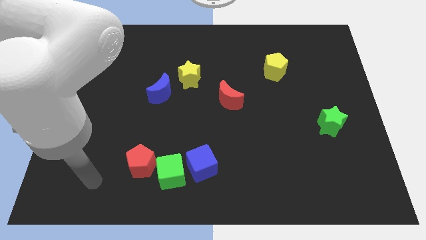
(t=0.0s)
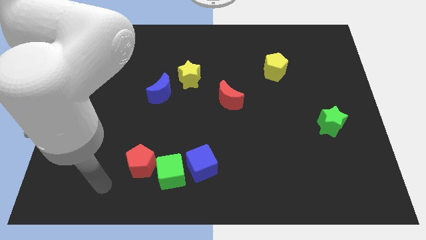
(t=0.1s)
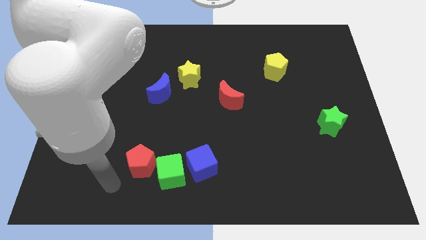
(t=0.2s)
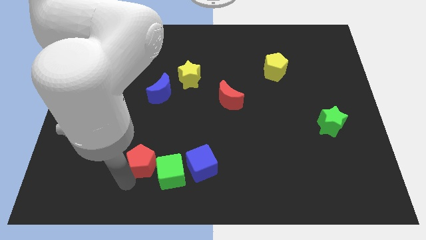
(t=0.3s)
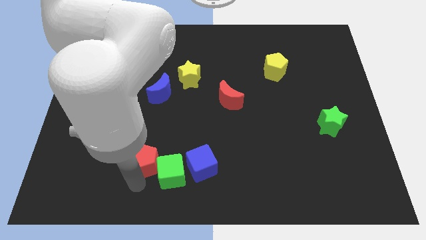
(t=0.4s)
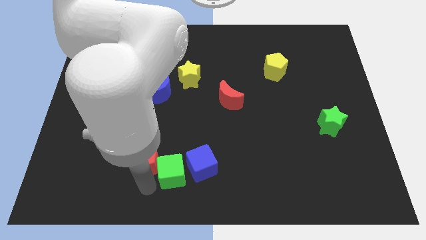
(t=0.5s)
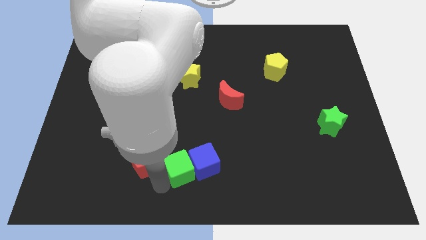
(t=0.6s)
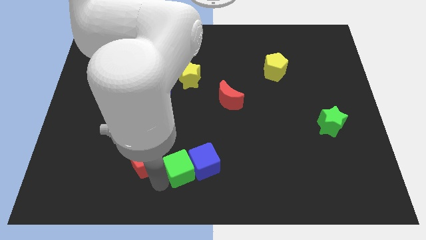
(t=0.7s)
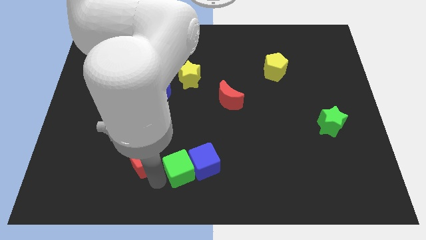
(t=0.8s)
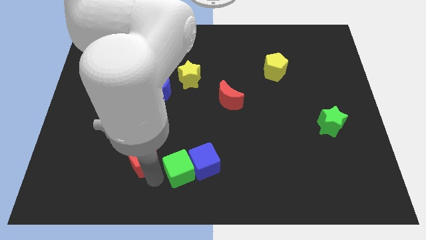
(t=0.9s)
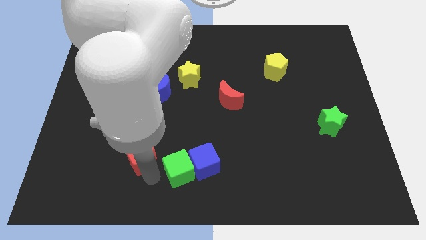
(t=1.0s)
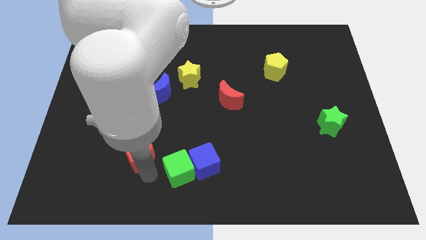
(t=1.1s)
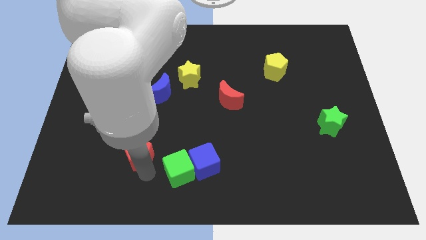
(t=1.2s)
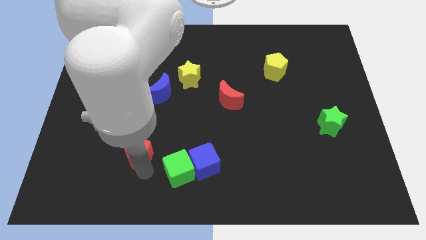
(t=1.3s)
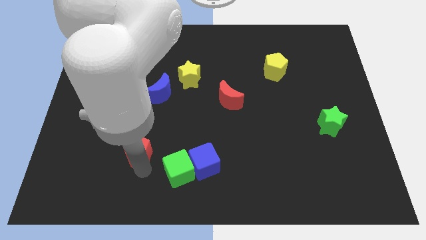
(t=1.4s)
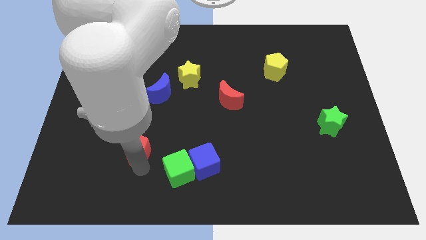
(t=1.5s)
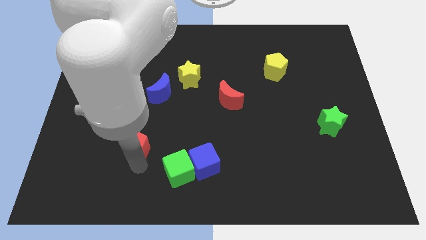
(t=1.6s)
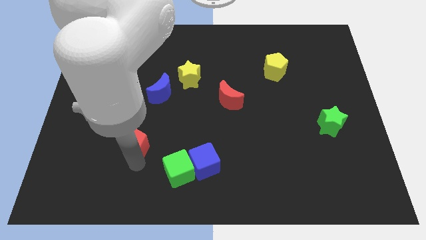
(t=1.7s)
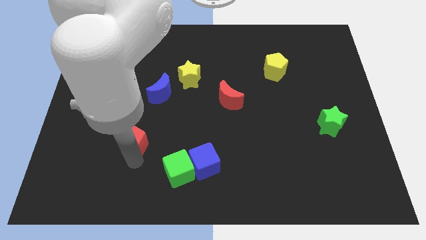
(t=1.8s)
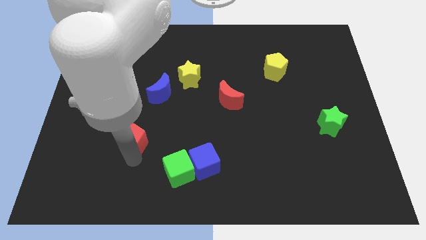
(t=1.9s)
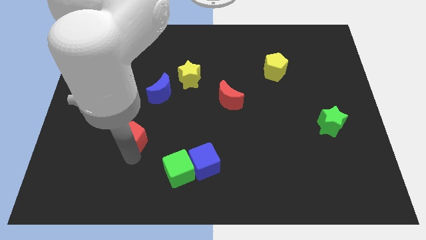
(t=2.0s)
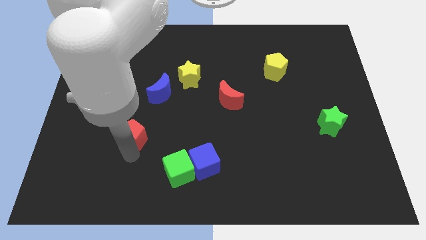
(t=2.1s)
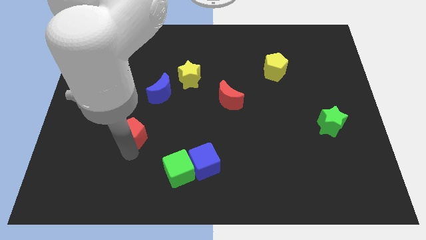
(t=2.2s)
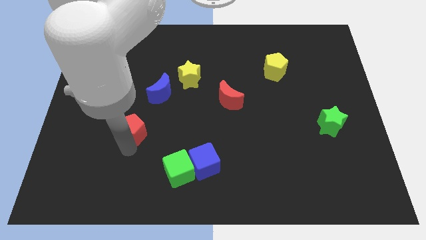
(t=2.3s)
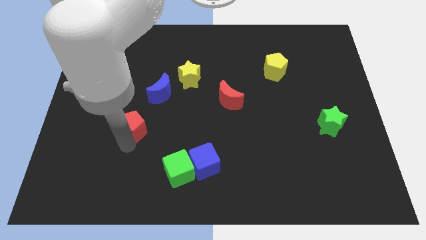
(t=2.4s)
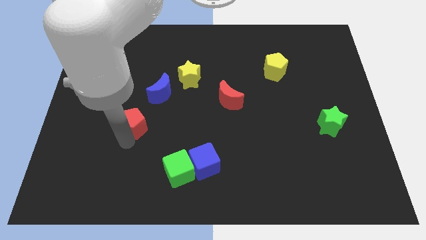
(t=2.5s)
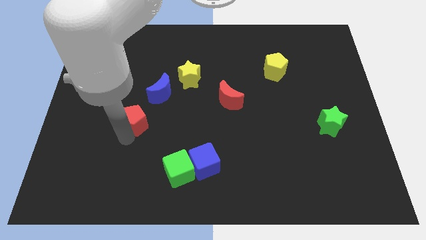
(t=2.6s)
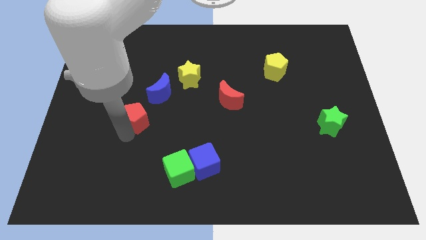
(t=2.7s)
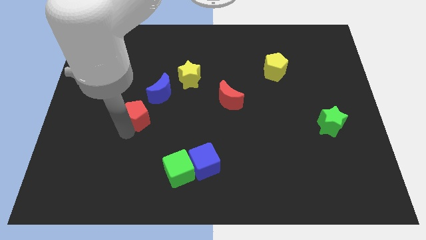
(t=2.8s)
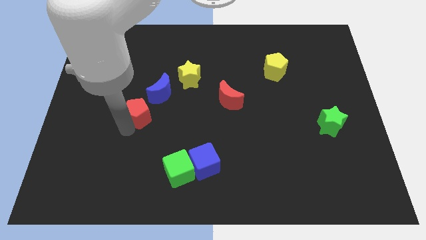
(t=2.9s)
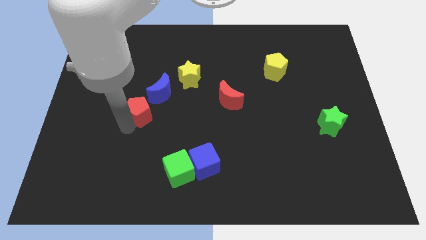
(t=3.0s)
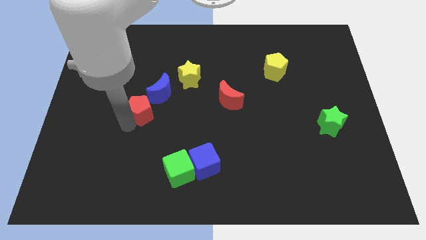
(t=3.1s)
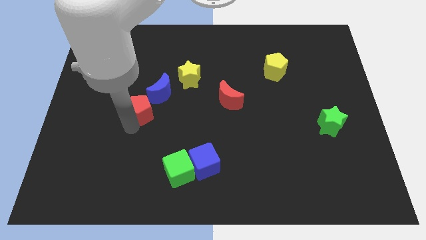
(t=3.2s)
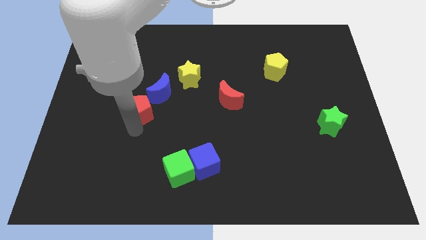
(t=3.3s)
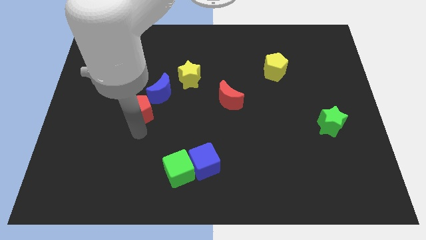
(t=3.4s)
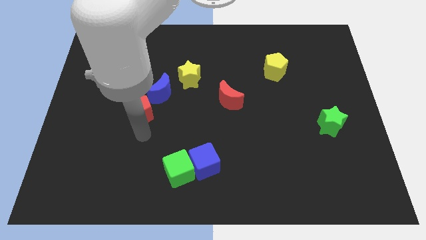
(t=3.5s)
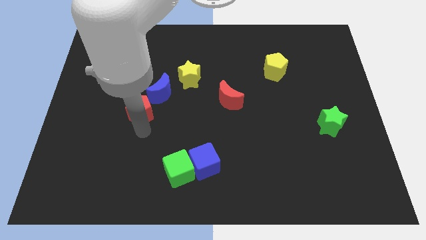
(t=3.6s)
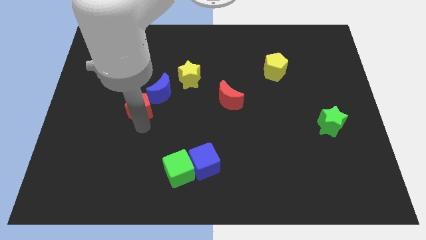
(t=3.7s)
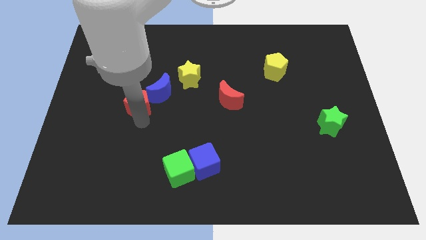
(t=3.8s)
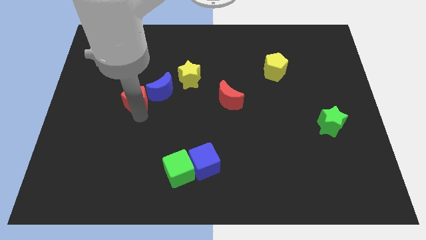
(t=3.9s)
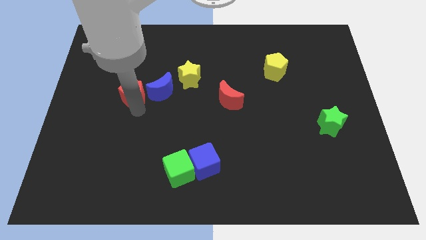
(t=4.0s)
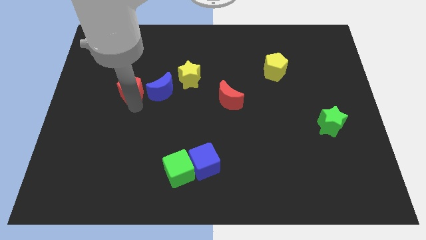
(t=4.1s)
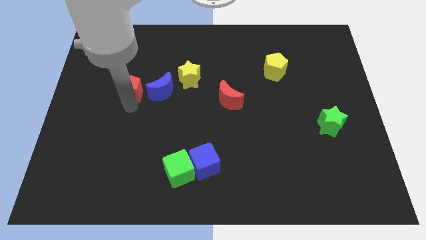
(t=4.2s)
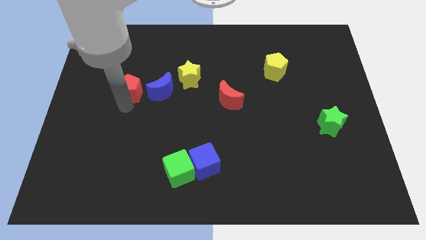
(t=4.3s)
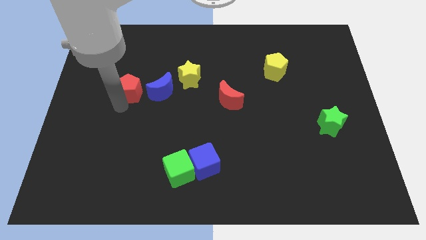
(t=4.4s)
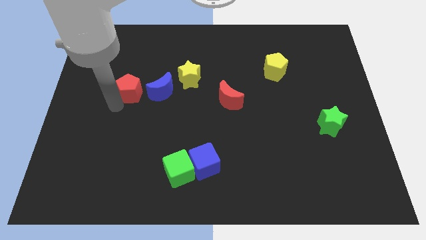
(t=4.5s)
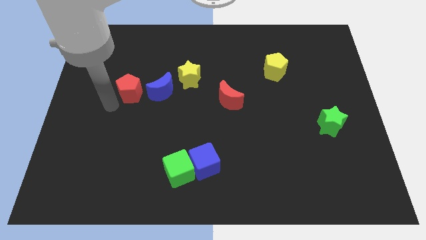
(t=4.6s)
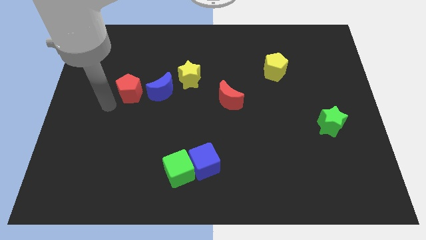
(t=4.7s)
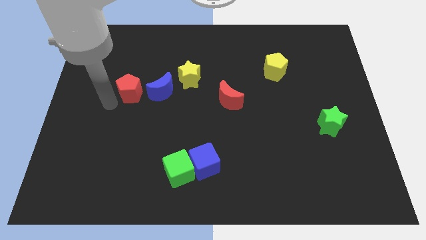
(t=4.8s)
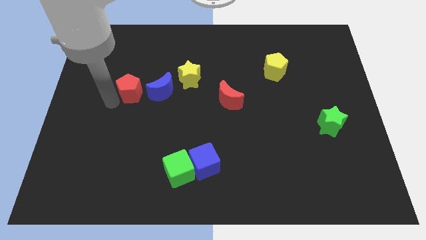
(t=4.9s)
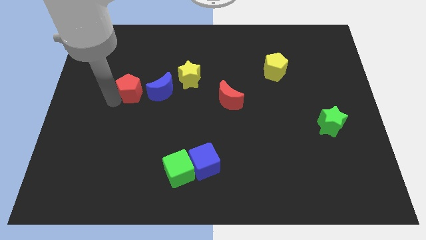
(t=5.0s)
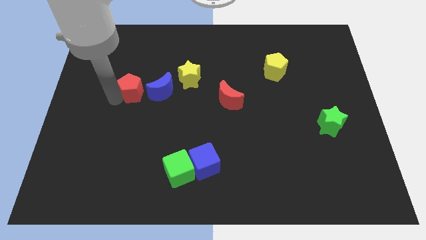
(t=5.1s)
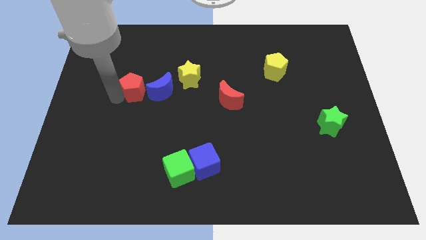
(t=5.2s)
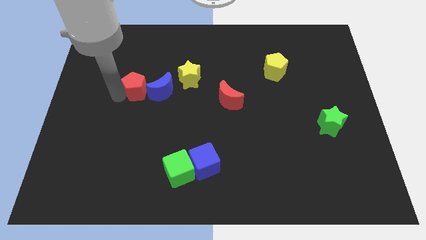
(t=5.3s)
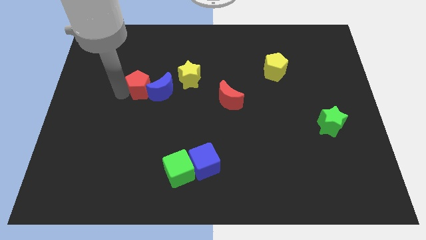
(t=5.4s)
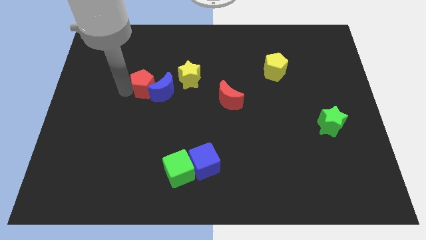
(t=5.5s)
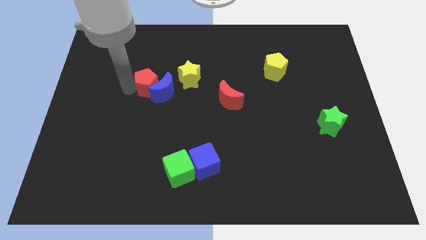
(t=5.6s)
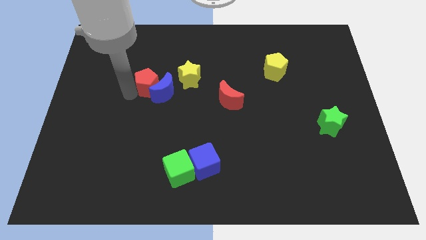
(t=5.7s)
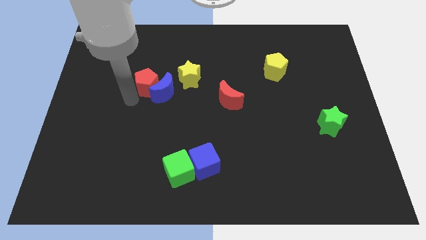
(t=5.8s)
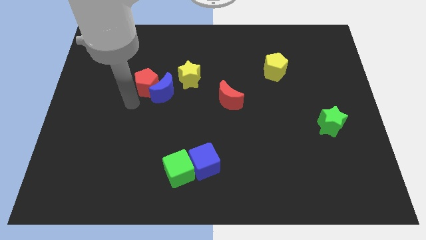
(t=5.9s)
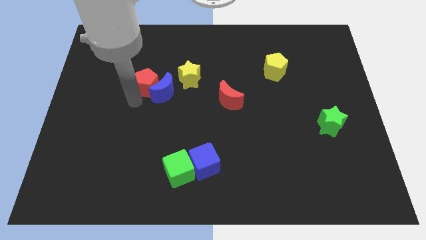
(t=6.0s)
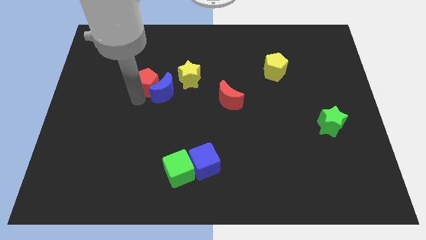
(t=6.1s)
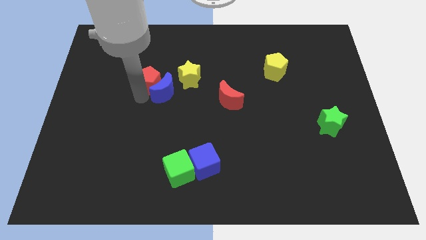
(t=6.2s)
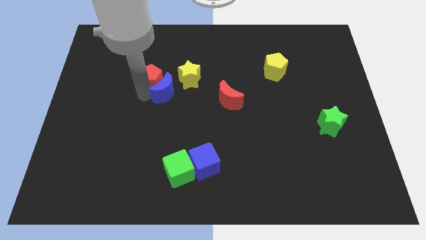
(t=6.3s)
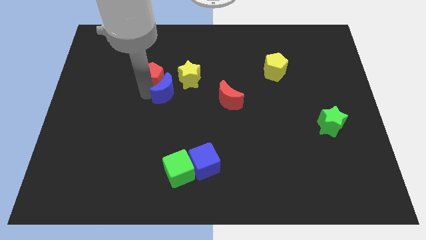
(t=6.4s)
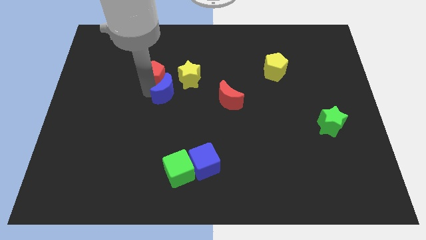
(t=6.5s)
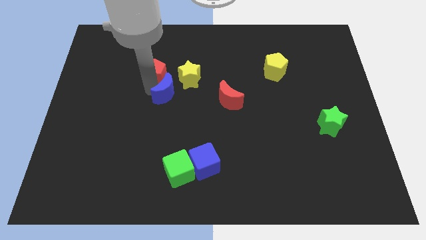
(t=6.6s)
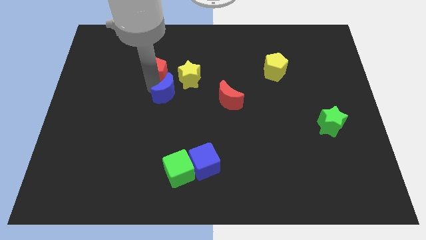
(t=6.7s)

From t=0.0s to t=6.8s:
move the red pentagon to the top left side of the yellow star
